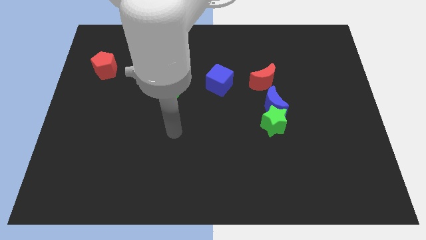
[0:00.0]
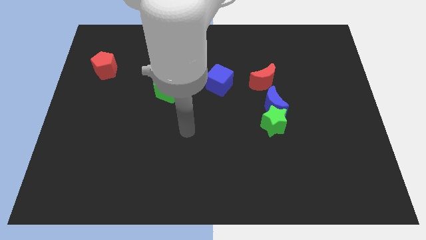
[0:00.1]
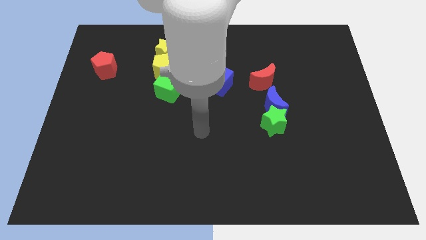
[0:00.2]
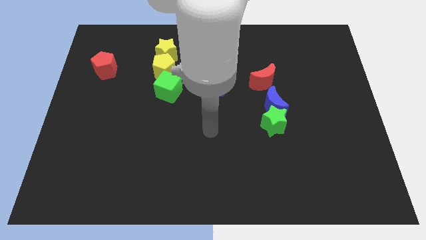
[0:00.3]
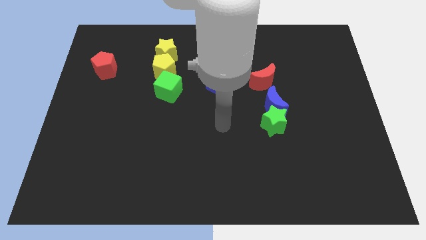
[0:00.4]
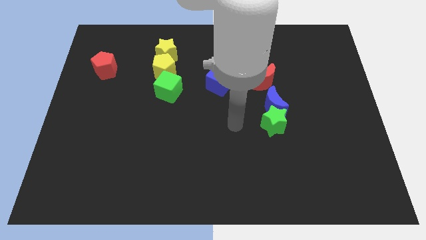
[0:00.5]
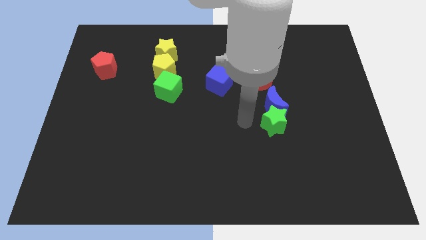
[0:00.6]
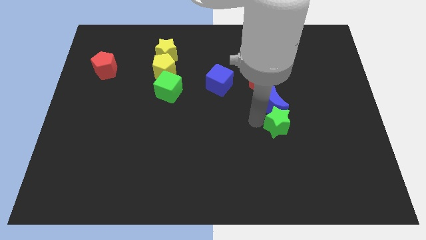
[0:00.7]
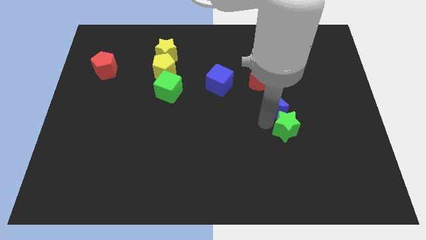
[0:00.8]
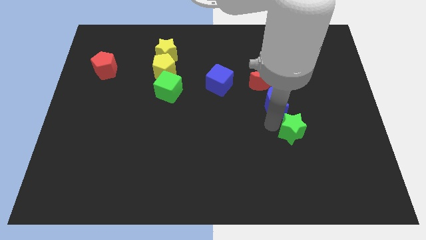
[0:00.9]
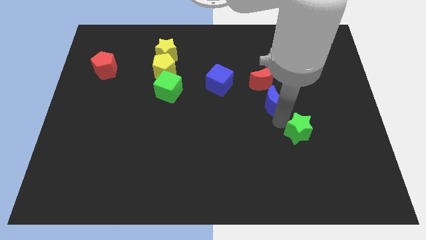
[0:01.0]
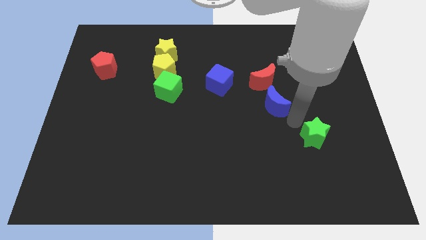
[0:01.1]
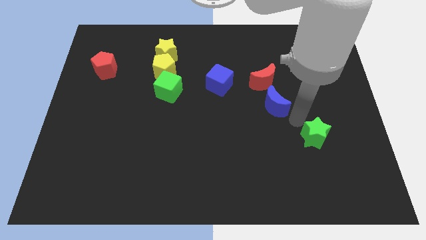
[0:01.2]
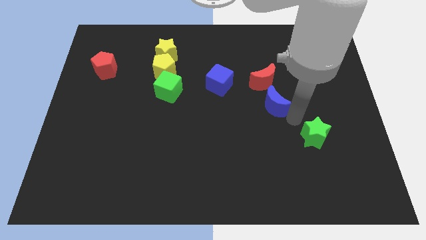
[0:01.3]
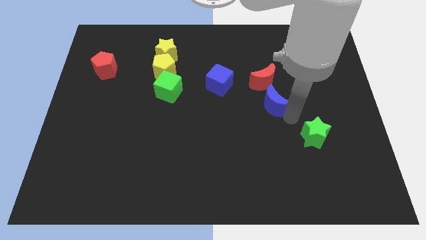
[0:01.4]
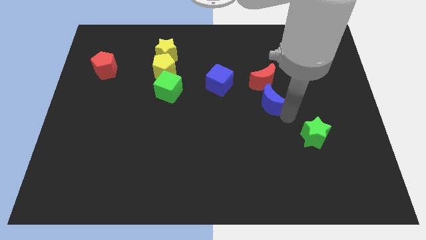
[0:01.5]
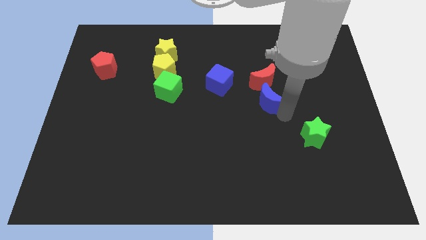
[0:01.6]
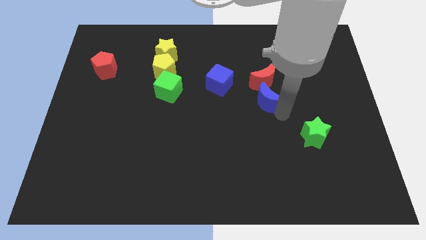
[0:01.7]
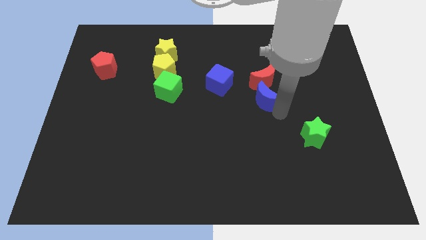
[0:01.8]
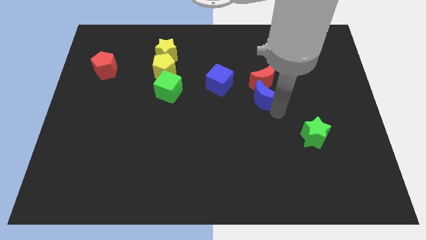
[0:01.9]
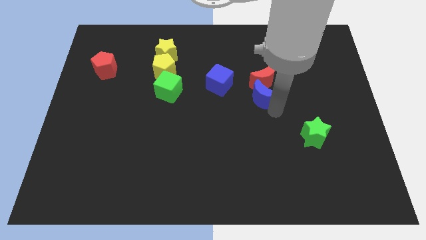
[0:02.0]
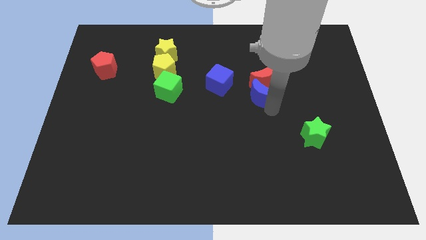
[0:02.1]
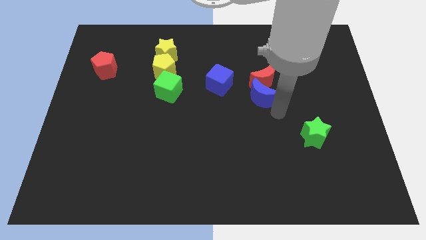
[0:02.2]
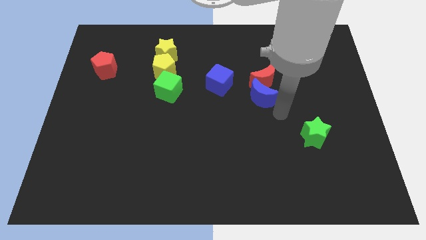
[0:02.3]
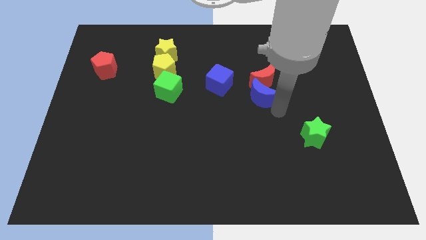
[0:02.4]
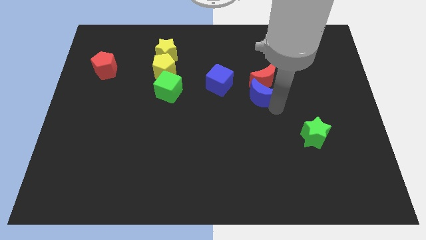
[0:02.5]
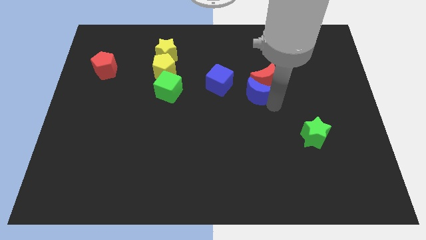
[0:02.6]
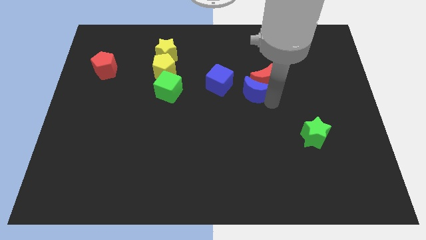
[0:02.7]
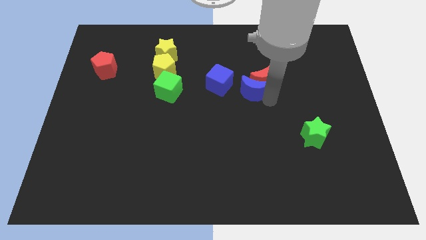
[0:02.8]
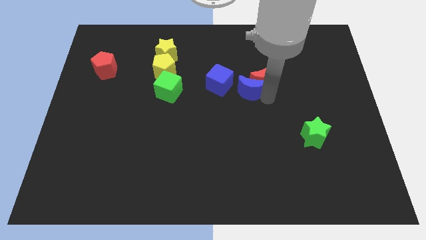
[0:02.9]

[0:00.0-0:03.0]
slide the blue moon upwards and left a bit

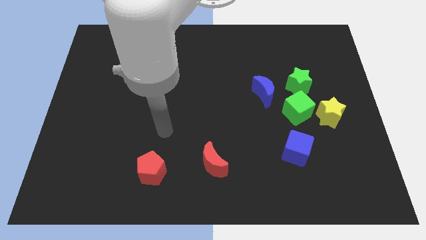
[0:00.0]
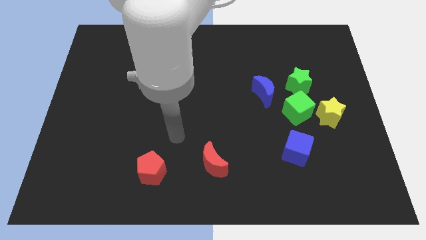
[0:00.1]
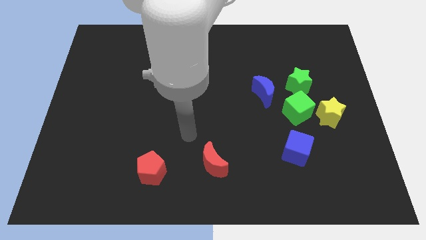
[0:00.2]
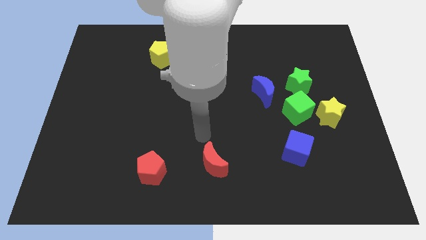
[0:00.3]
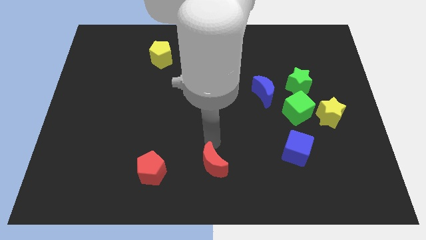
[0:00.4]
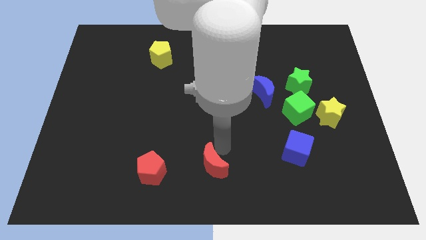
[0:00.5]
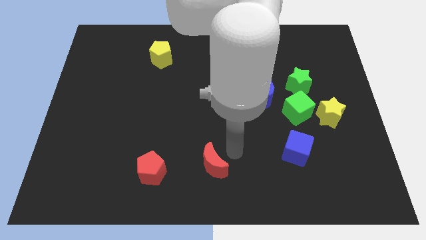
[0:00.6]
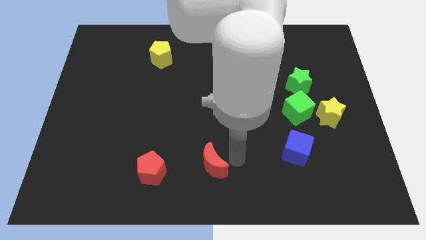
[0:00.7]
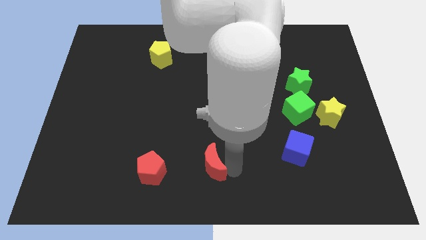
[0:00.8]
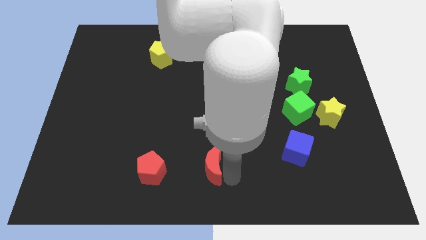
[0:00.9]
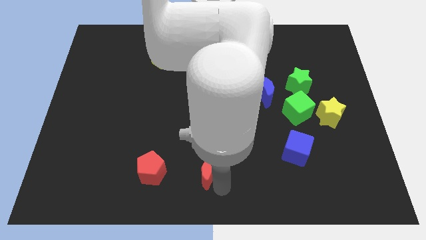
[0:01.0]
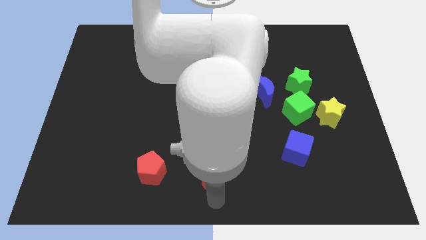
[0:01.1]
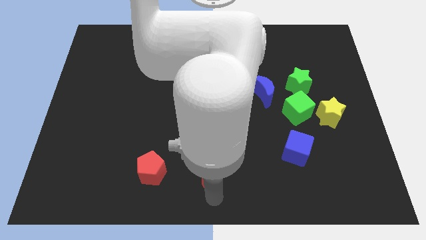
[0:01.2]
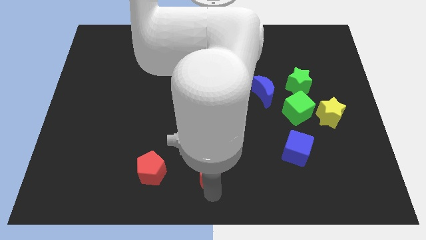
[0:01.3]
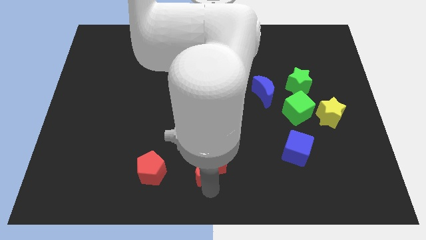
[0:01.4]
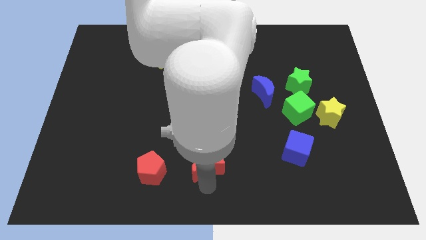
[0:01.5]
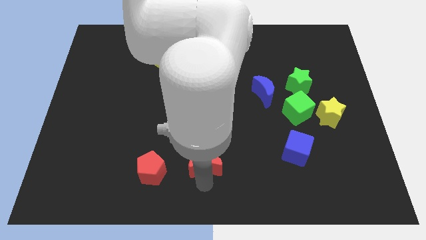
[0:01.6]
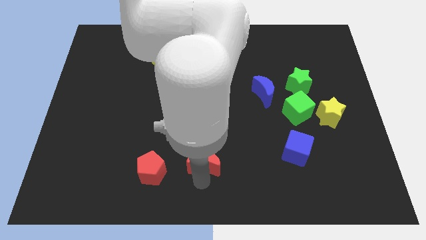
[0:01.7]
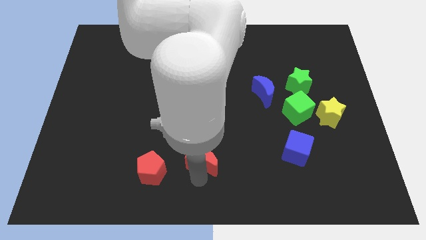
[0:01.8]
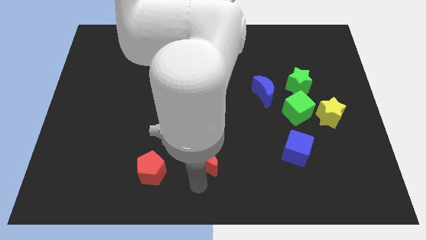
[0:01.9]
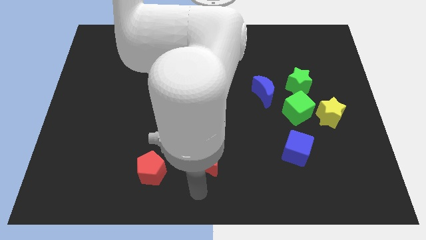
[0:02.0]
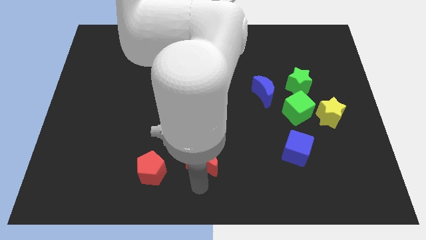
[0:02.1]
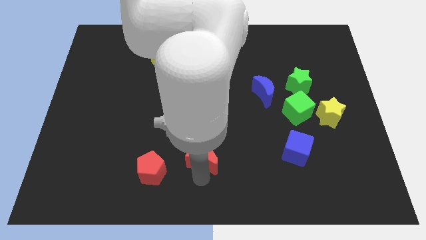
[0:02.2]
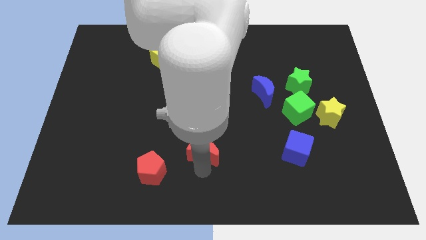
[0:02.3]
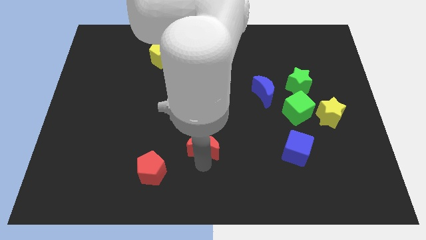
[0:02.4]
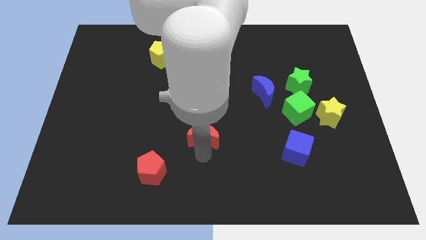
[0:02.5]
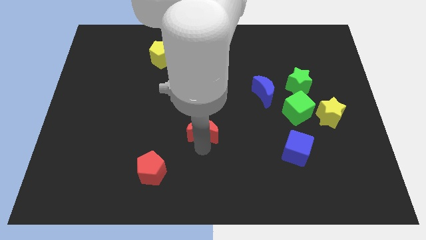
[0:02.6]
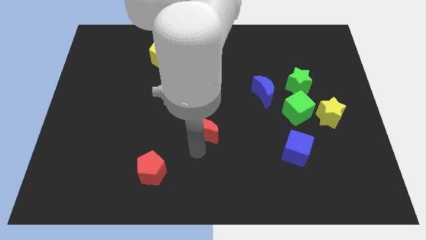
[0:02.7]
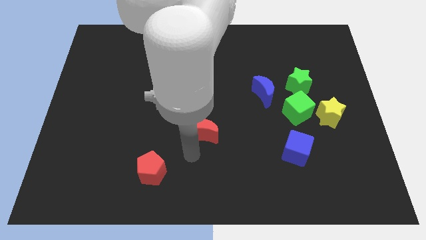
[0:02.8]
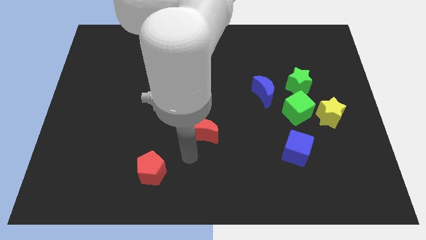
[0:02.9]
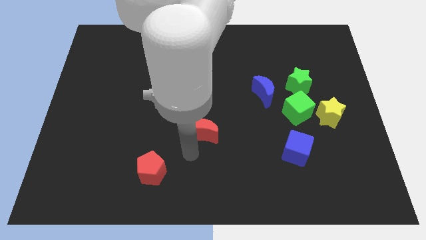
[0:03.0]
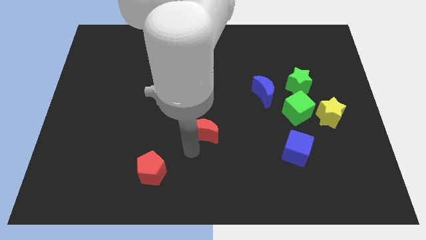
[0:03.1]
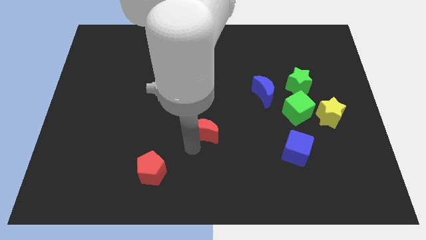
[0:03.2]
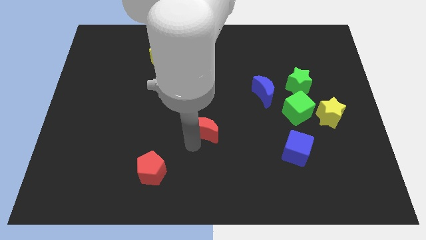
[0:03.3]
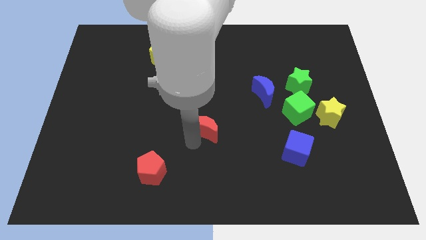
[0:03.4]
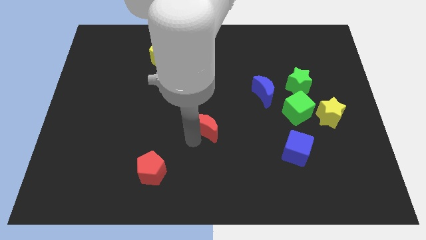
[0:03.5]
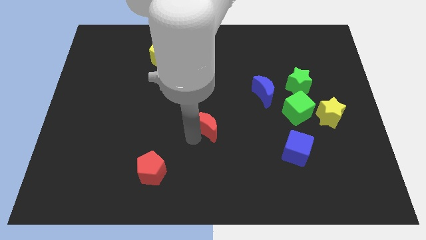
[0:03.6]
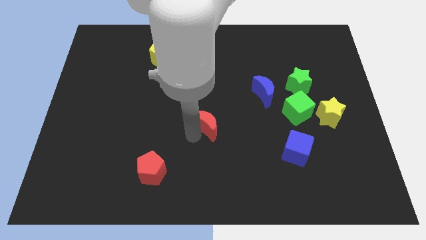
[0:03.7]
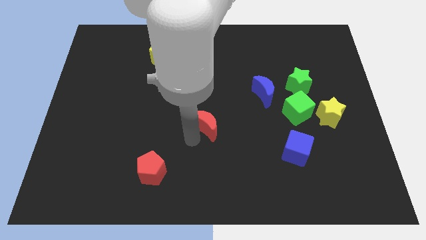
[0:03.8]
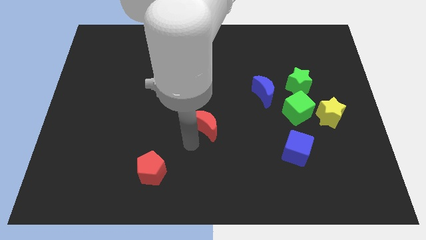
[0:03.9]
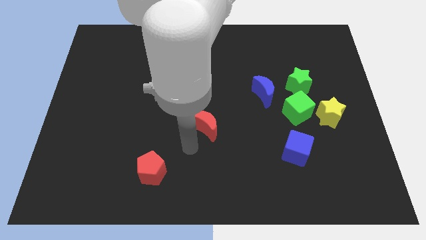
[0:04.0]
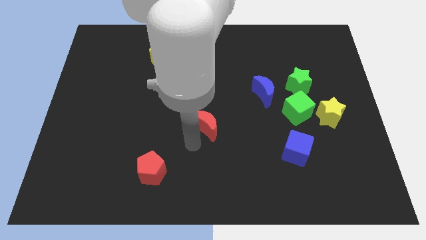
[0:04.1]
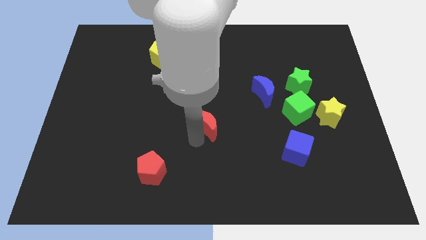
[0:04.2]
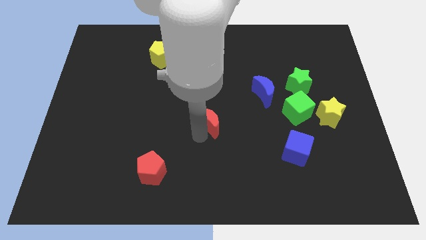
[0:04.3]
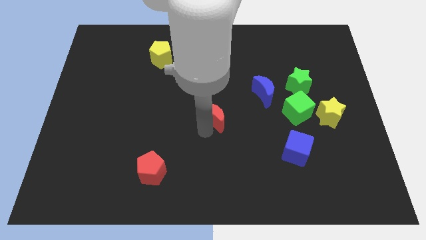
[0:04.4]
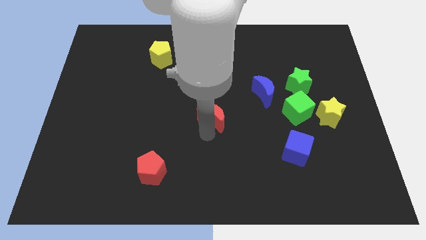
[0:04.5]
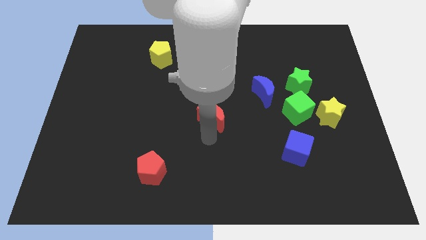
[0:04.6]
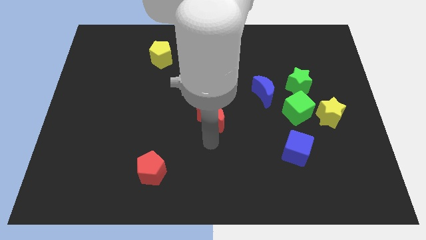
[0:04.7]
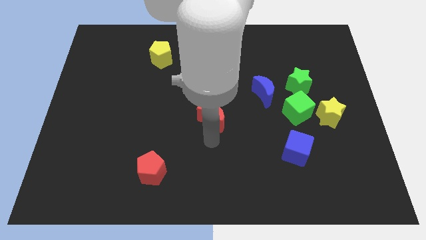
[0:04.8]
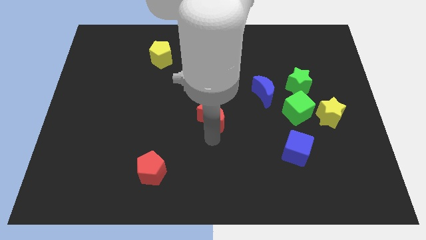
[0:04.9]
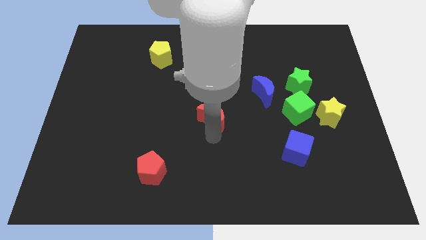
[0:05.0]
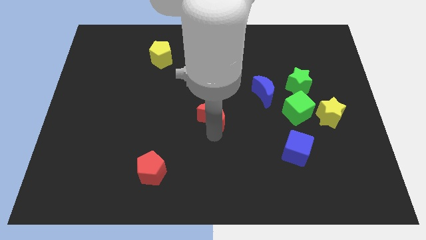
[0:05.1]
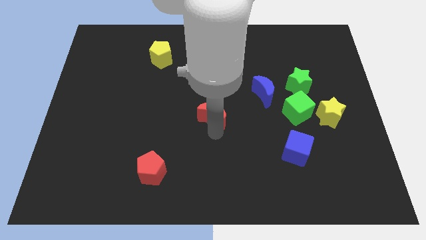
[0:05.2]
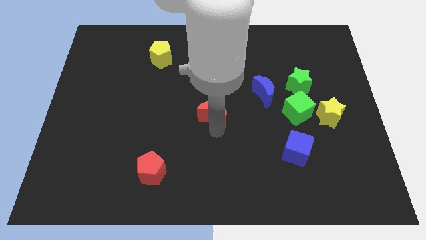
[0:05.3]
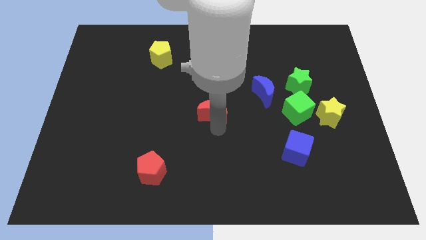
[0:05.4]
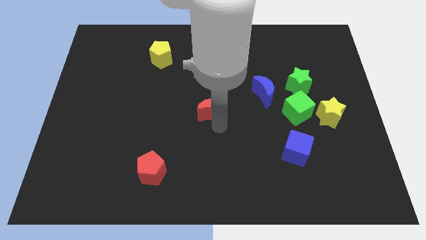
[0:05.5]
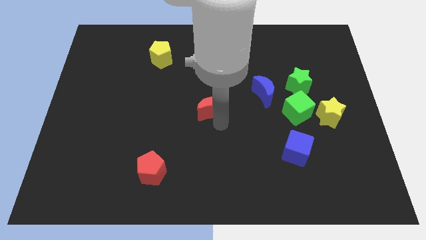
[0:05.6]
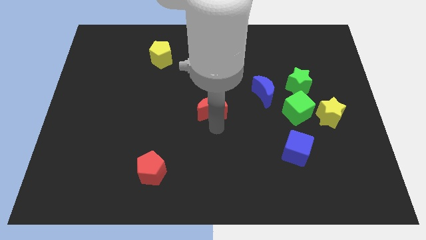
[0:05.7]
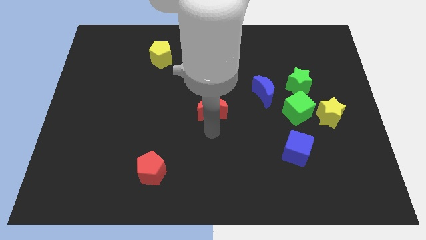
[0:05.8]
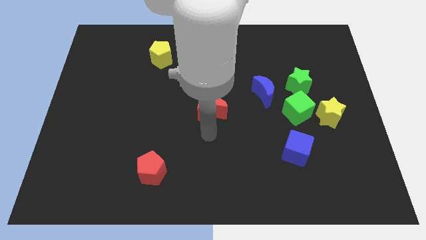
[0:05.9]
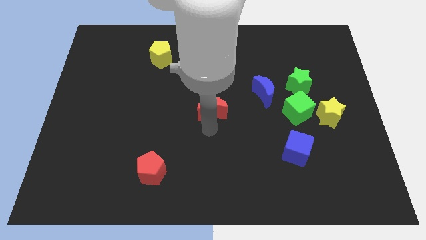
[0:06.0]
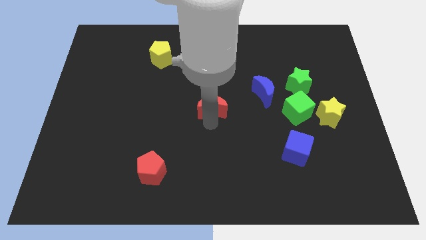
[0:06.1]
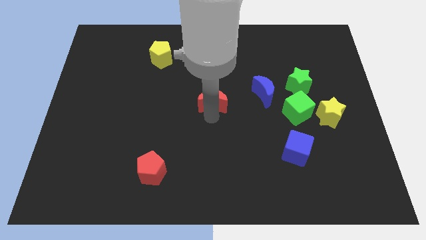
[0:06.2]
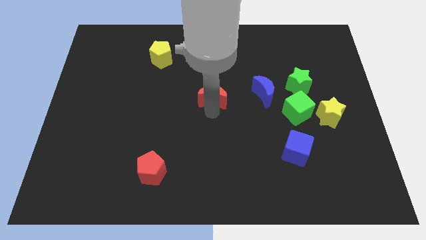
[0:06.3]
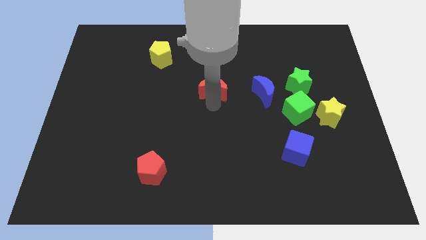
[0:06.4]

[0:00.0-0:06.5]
move the red moon upwards
